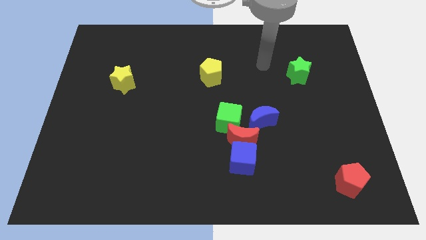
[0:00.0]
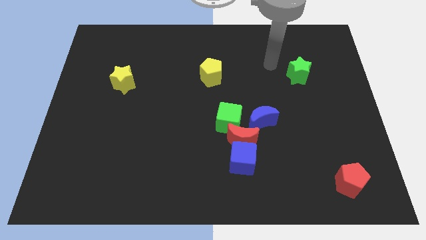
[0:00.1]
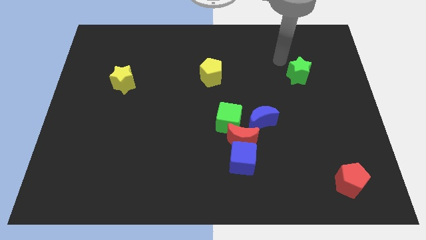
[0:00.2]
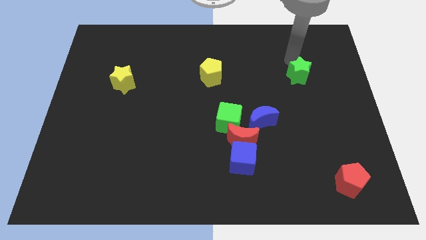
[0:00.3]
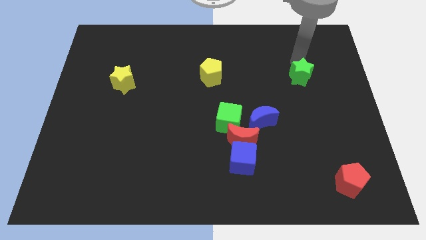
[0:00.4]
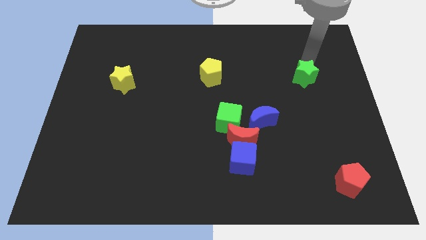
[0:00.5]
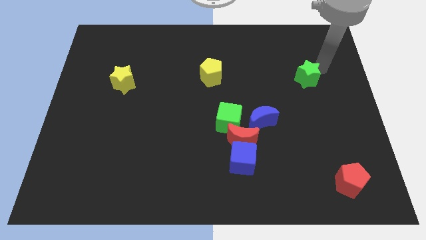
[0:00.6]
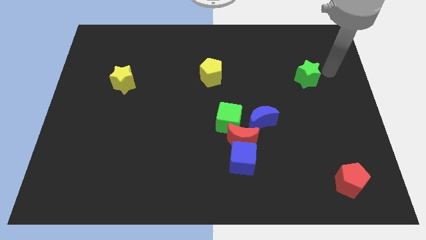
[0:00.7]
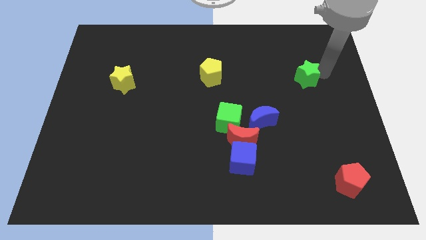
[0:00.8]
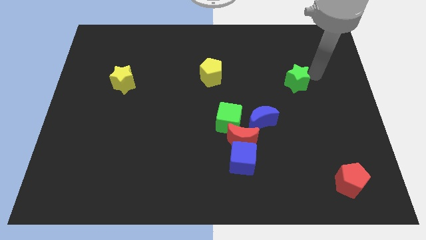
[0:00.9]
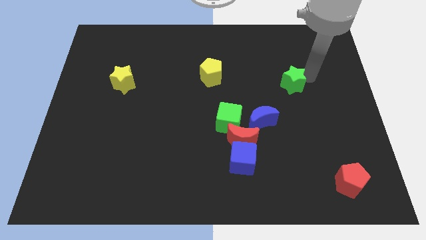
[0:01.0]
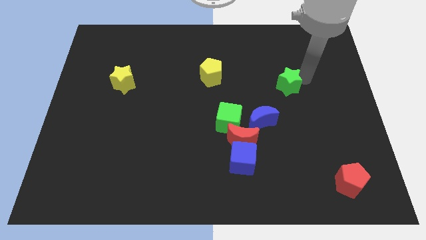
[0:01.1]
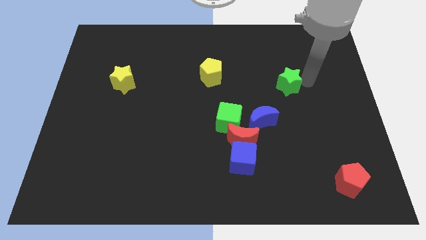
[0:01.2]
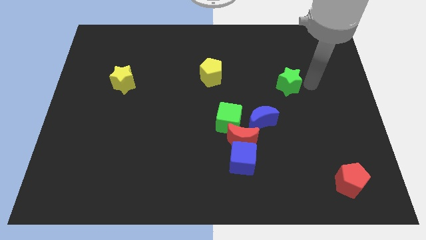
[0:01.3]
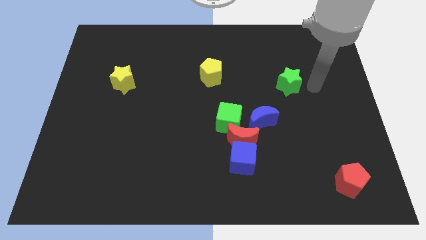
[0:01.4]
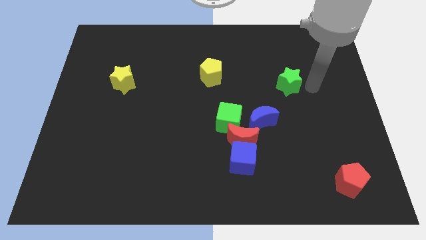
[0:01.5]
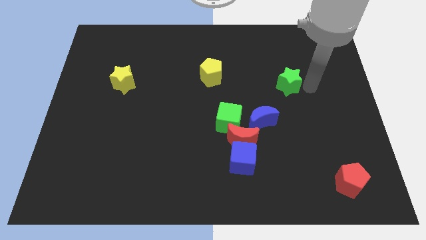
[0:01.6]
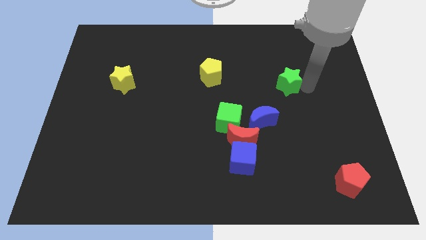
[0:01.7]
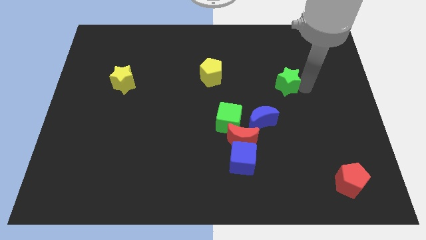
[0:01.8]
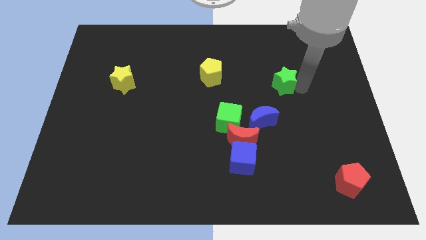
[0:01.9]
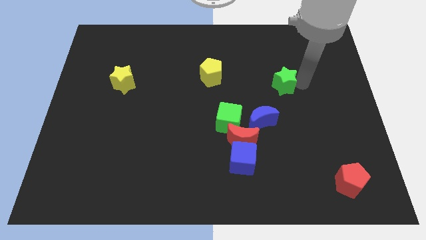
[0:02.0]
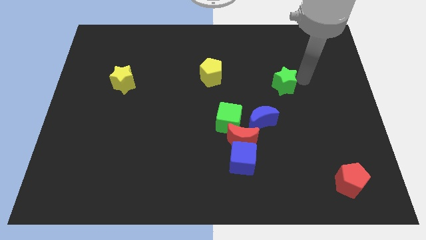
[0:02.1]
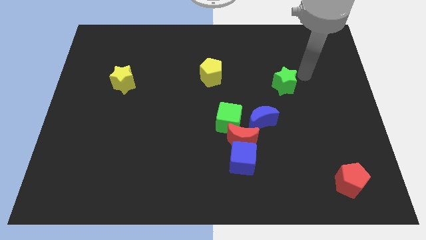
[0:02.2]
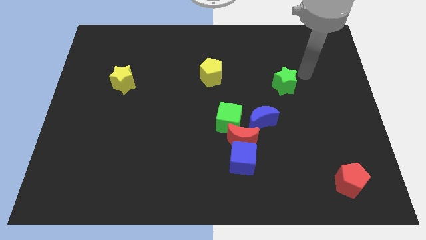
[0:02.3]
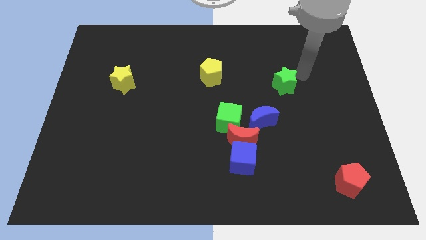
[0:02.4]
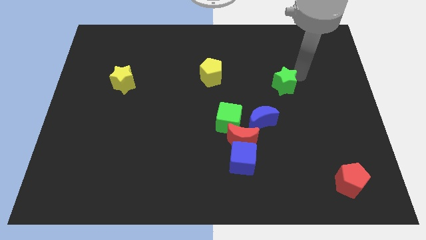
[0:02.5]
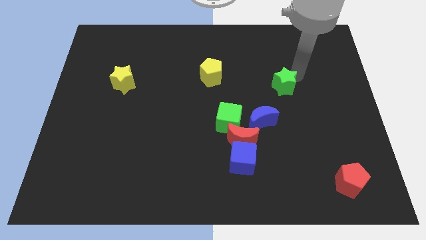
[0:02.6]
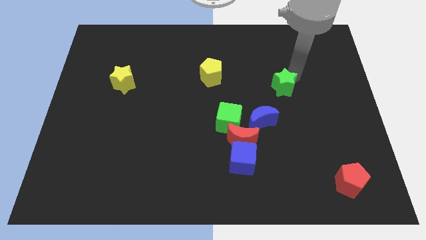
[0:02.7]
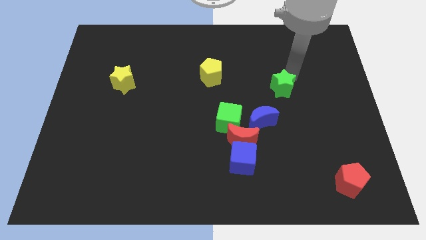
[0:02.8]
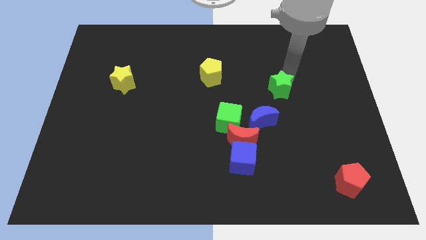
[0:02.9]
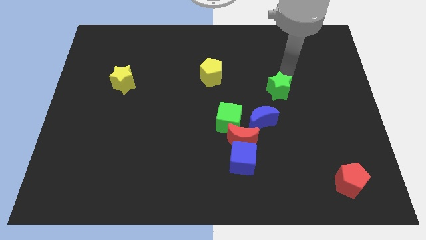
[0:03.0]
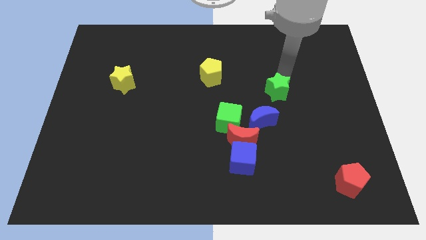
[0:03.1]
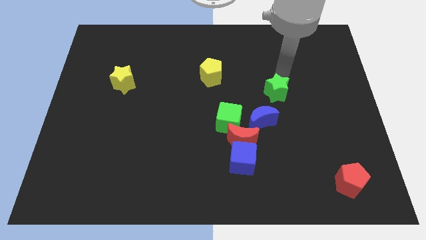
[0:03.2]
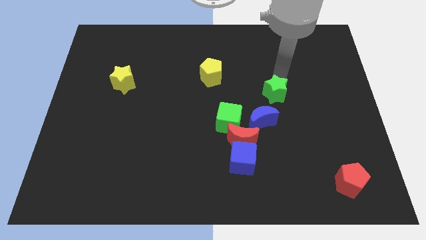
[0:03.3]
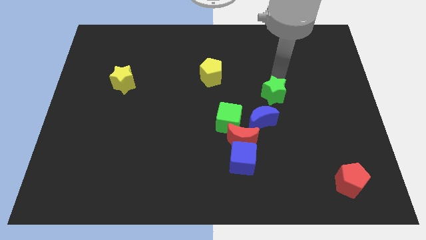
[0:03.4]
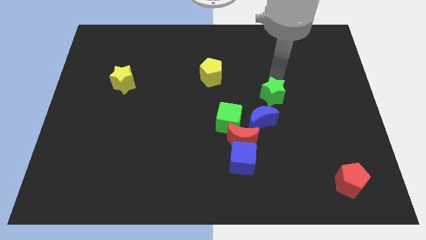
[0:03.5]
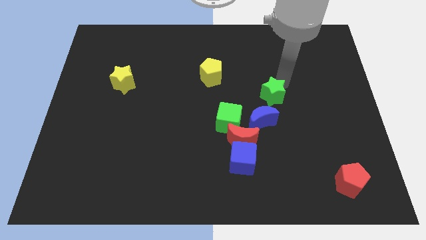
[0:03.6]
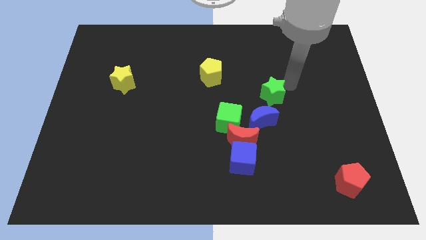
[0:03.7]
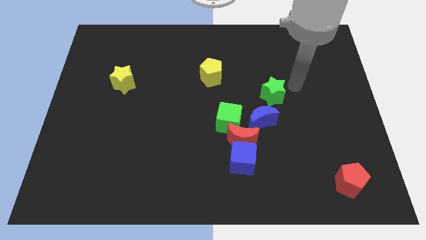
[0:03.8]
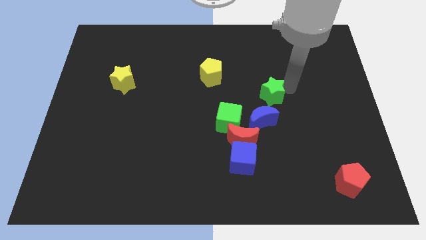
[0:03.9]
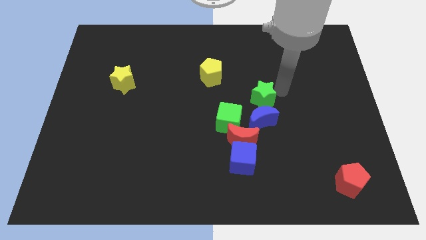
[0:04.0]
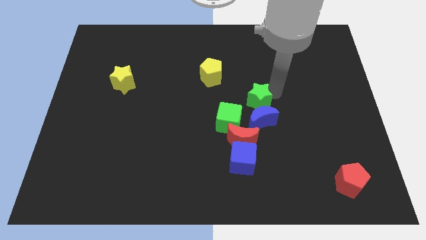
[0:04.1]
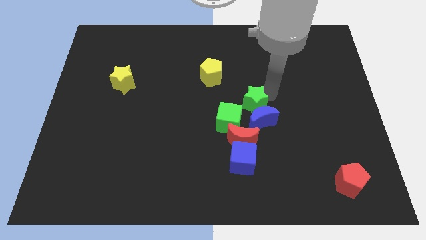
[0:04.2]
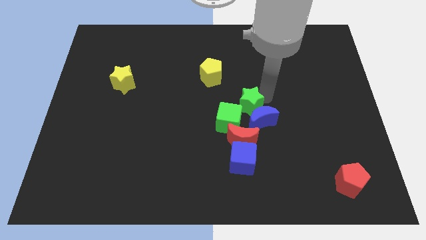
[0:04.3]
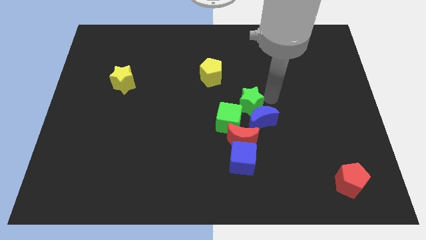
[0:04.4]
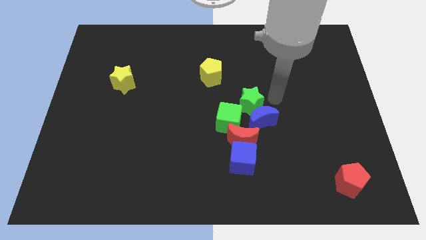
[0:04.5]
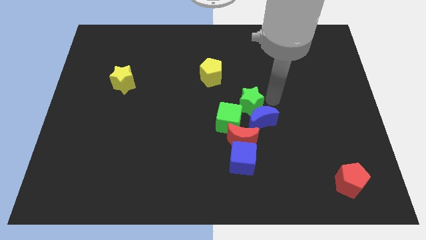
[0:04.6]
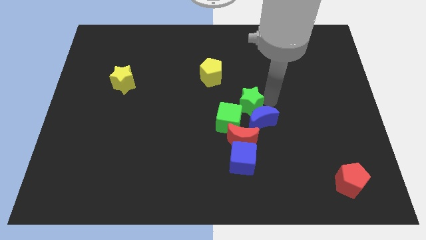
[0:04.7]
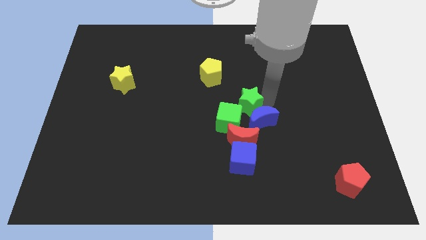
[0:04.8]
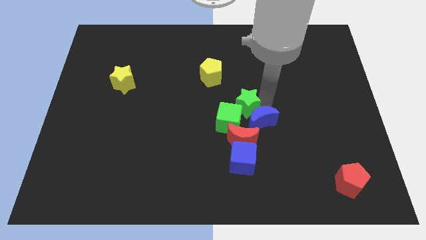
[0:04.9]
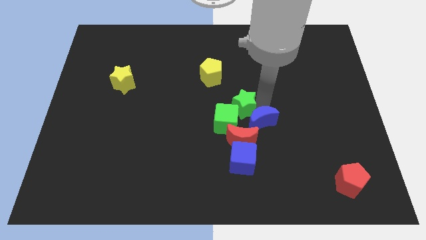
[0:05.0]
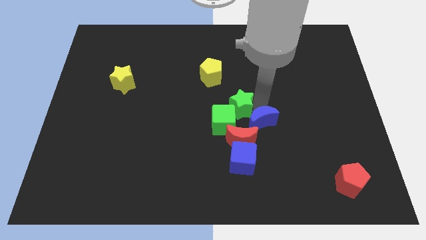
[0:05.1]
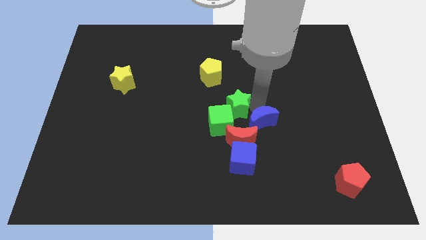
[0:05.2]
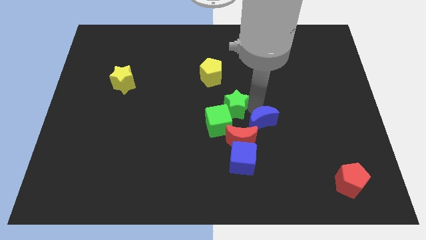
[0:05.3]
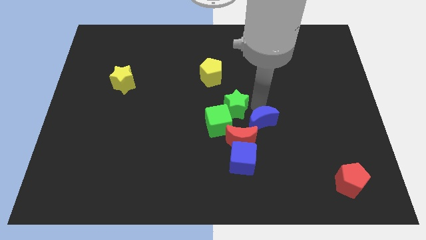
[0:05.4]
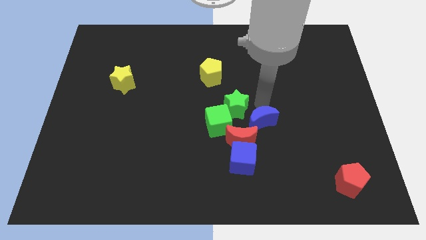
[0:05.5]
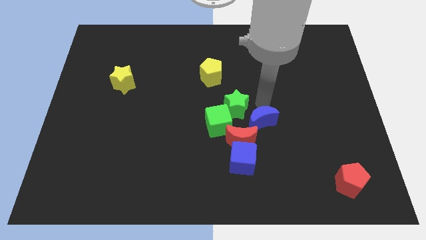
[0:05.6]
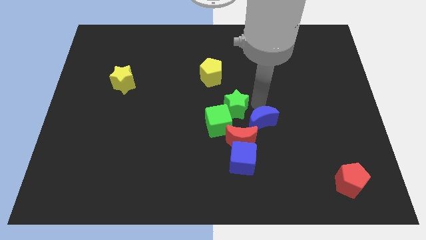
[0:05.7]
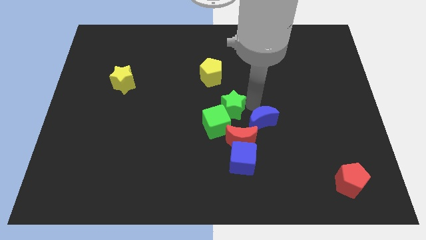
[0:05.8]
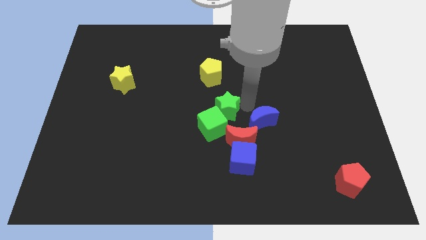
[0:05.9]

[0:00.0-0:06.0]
put the green star diagonally up and to the left of the red moon

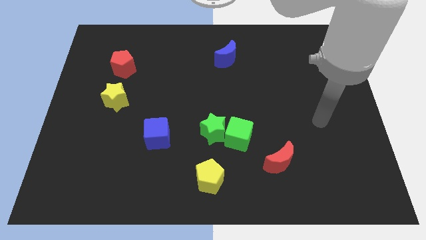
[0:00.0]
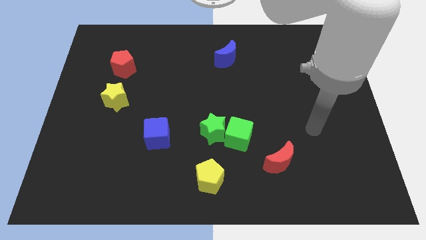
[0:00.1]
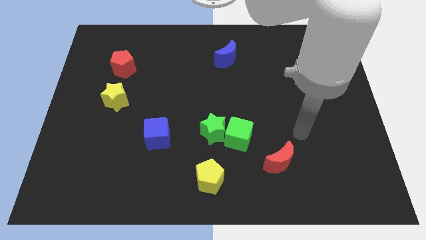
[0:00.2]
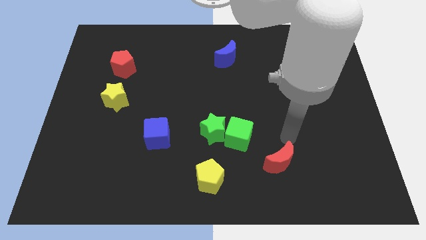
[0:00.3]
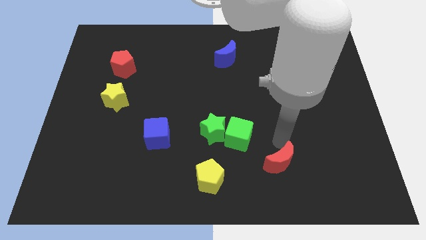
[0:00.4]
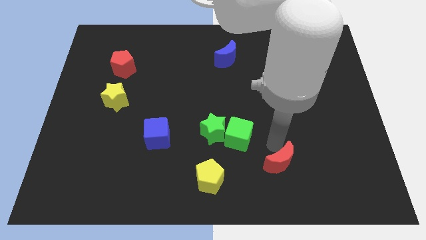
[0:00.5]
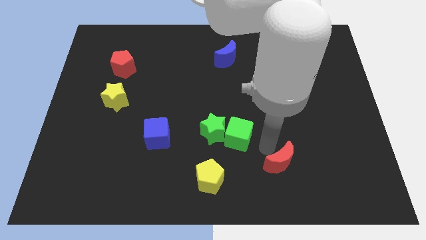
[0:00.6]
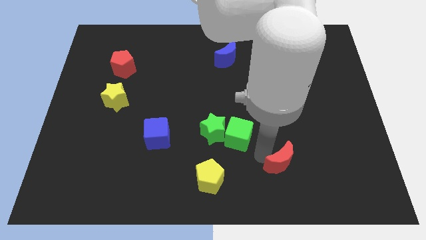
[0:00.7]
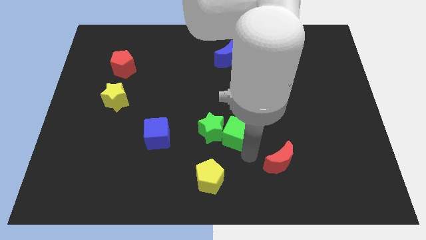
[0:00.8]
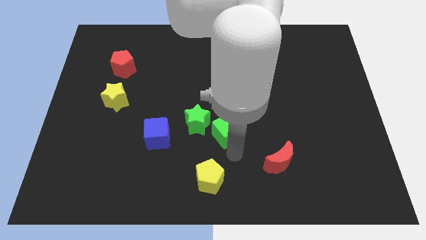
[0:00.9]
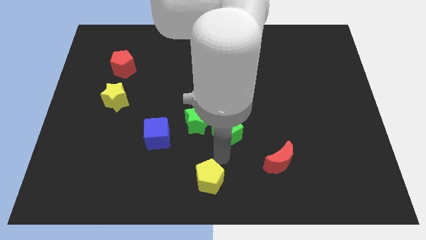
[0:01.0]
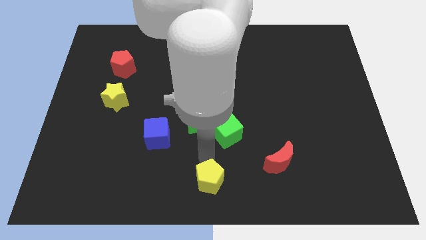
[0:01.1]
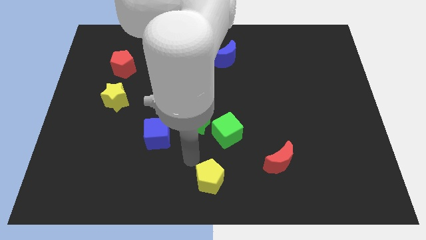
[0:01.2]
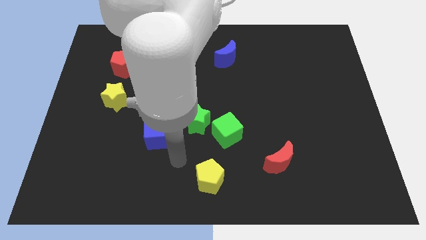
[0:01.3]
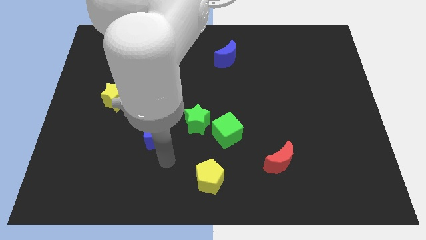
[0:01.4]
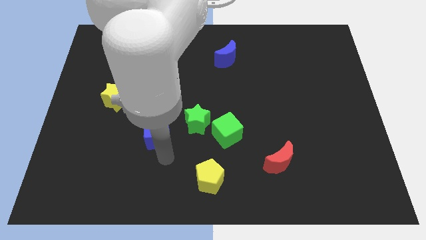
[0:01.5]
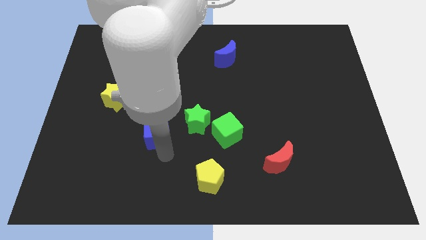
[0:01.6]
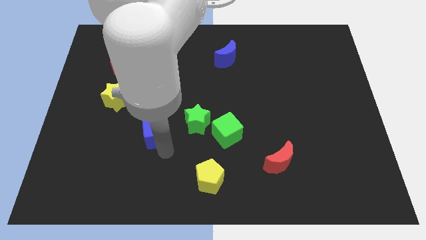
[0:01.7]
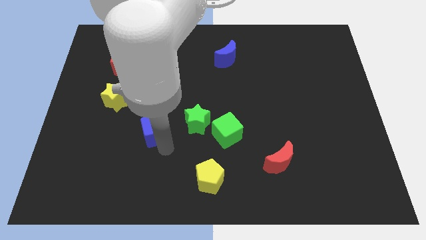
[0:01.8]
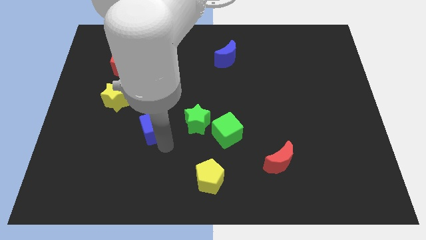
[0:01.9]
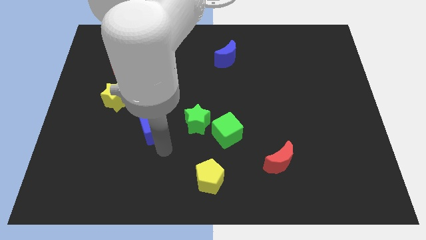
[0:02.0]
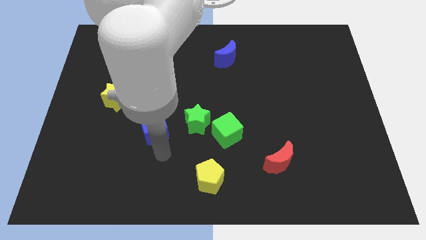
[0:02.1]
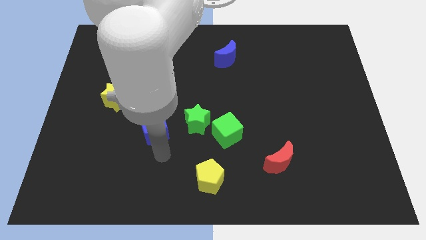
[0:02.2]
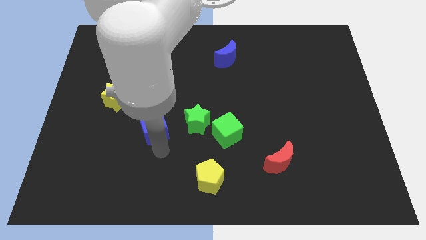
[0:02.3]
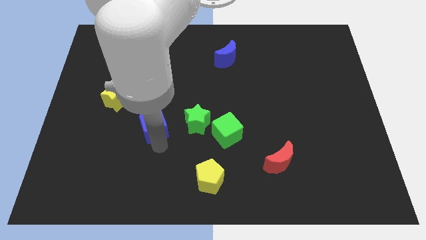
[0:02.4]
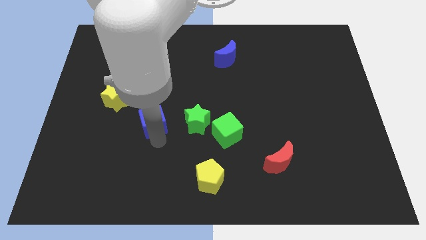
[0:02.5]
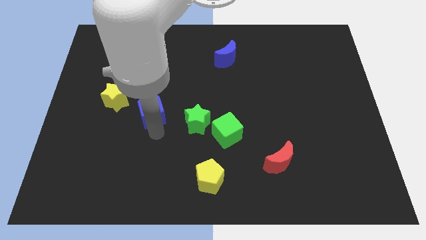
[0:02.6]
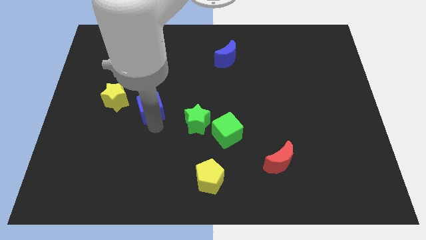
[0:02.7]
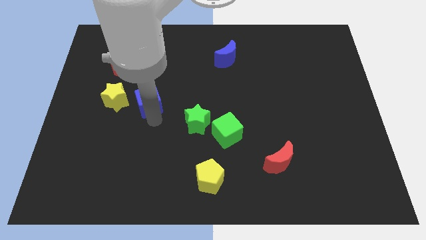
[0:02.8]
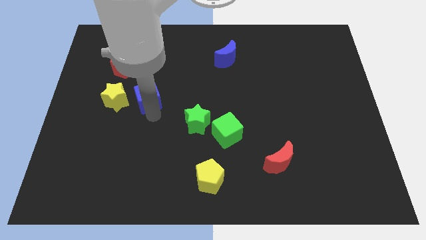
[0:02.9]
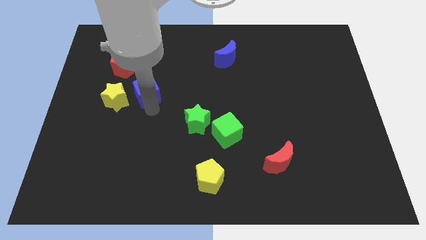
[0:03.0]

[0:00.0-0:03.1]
push the blue cube to the top right of the yellow star
